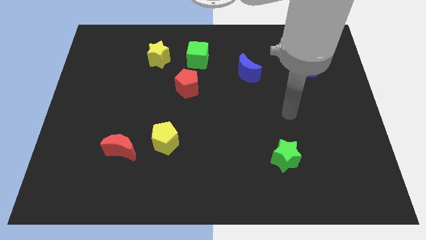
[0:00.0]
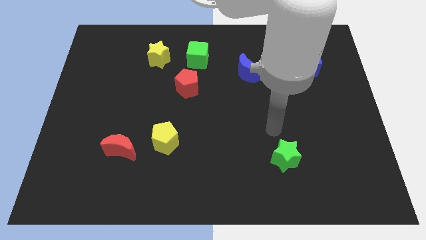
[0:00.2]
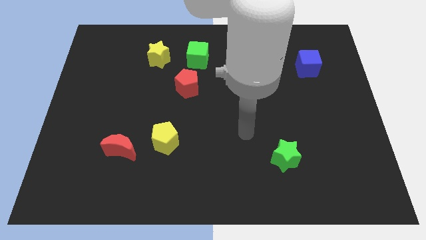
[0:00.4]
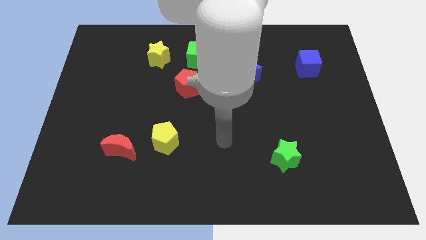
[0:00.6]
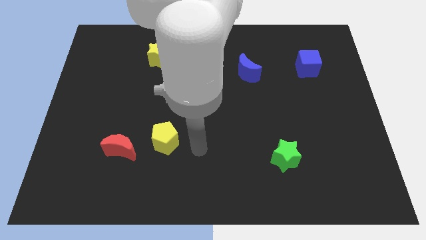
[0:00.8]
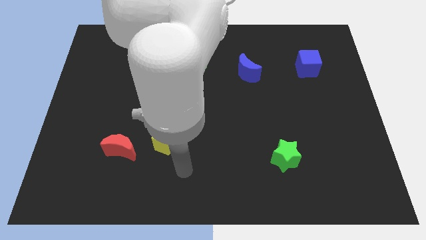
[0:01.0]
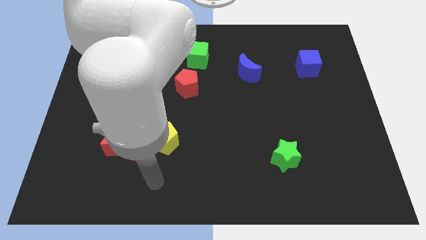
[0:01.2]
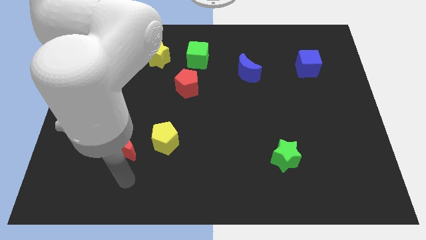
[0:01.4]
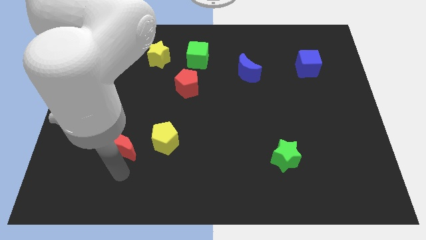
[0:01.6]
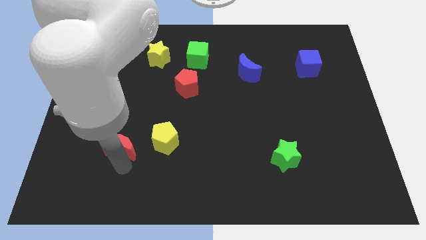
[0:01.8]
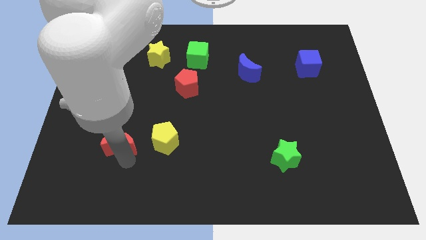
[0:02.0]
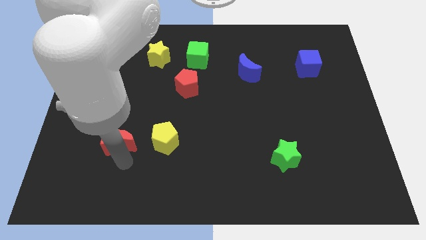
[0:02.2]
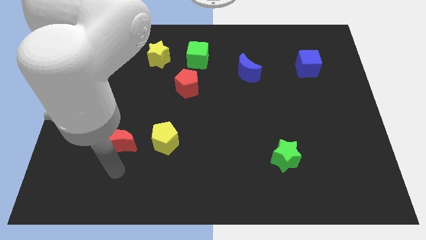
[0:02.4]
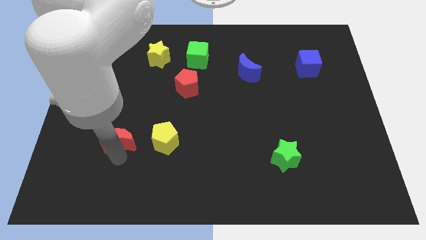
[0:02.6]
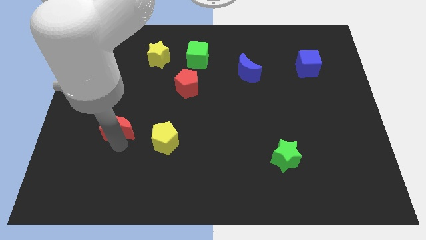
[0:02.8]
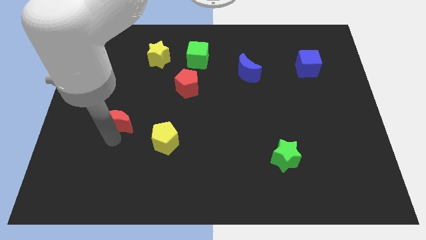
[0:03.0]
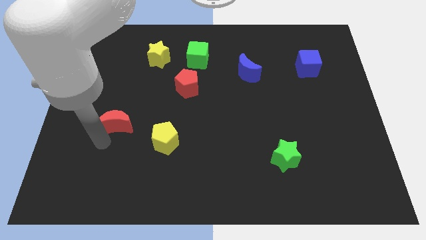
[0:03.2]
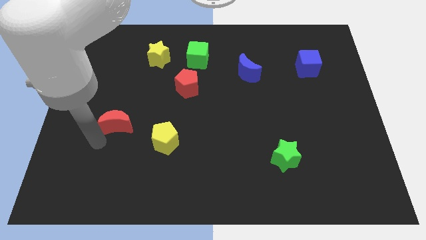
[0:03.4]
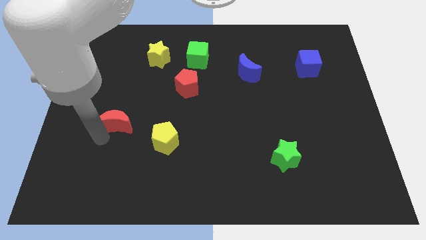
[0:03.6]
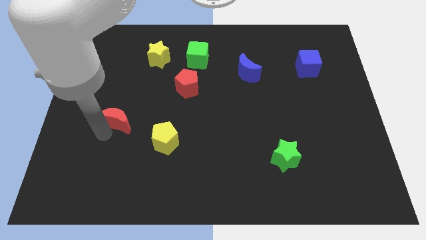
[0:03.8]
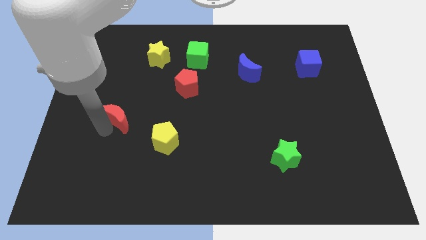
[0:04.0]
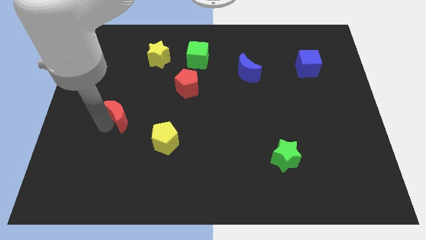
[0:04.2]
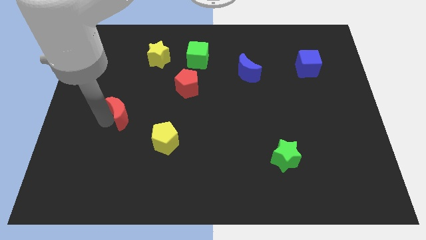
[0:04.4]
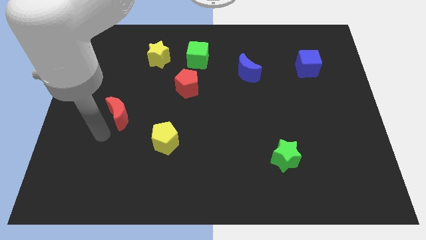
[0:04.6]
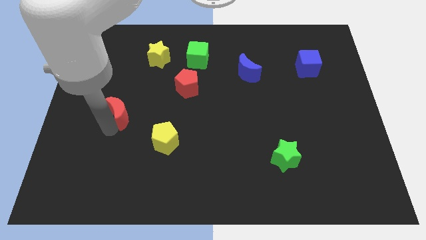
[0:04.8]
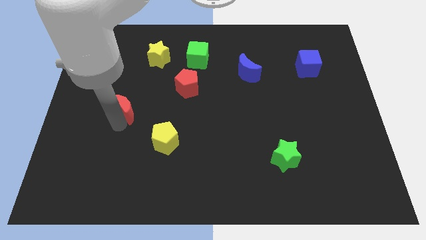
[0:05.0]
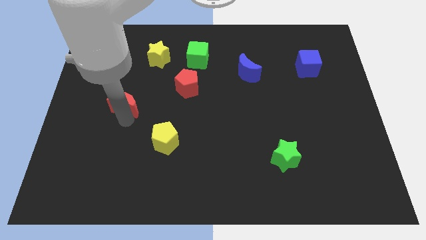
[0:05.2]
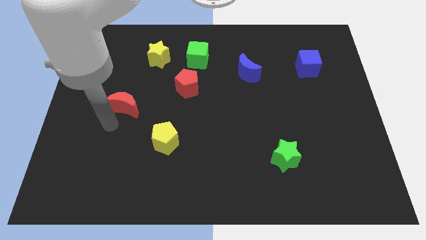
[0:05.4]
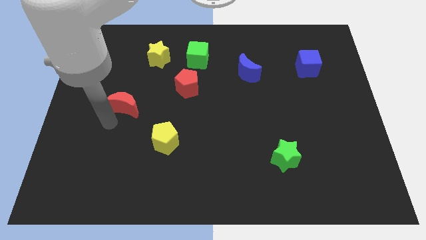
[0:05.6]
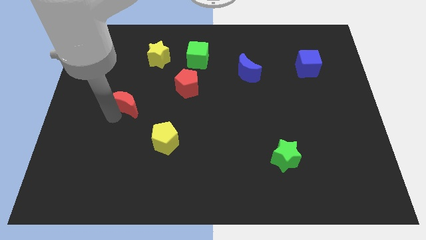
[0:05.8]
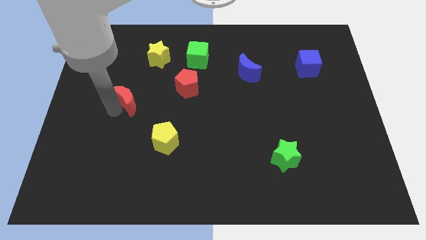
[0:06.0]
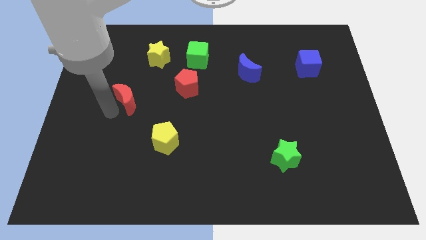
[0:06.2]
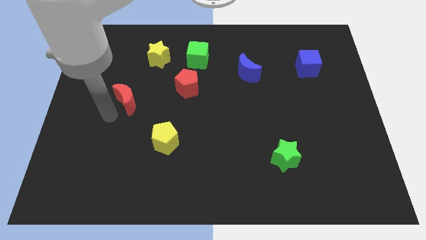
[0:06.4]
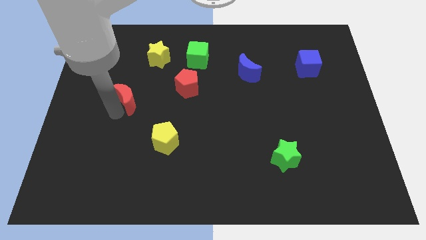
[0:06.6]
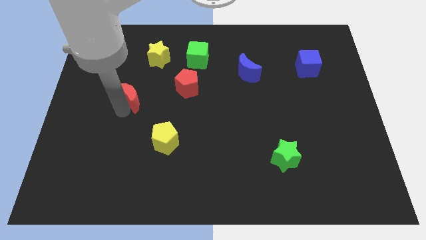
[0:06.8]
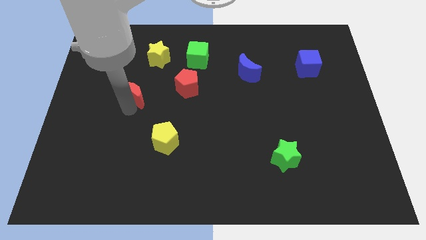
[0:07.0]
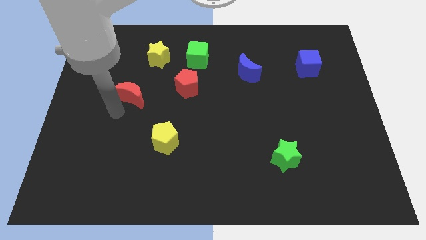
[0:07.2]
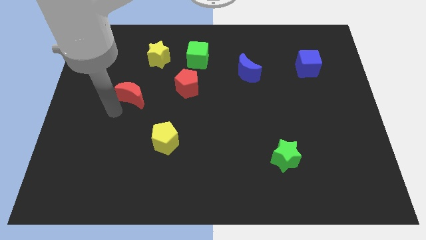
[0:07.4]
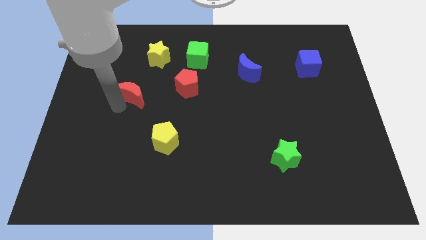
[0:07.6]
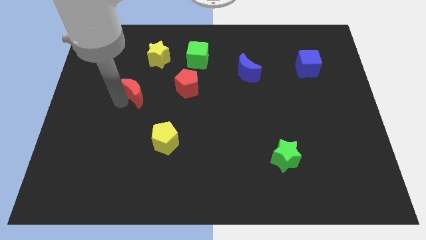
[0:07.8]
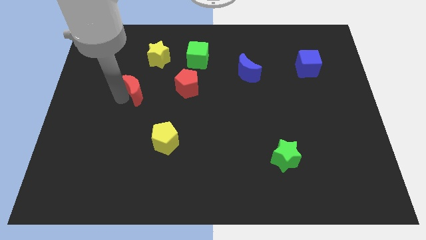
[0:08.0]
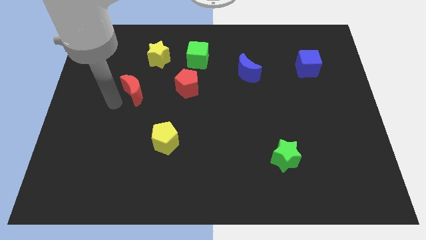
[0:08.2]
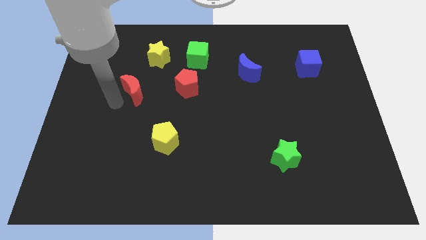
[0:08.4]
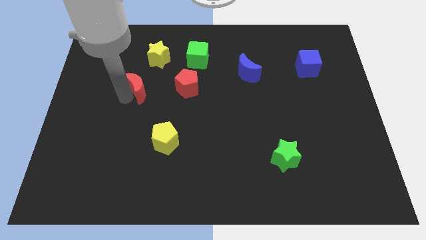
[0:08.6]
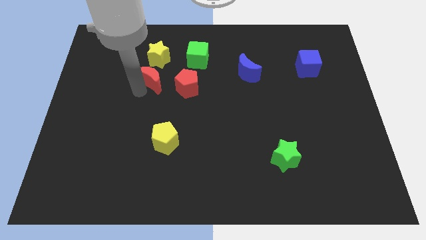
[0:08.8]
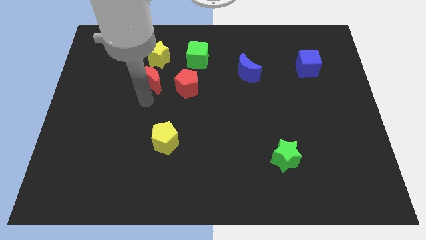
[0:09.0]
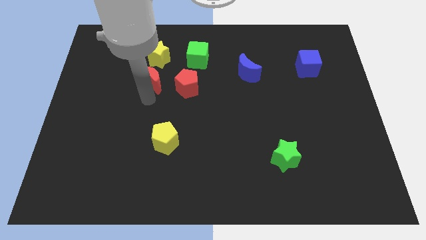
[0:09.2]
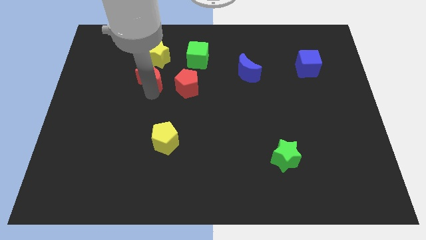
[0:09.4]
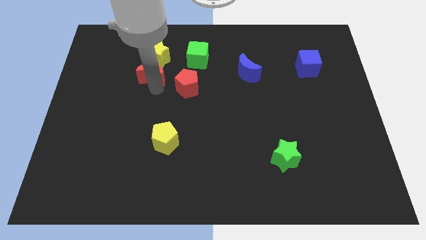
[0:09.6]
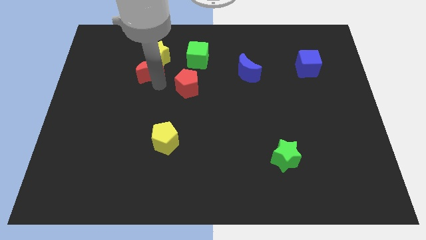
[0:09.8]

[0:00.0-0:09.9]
move the red moon next to the yellow star

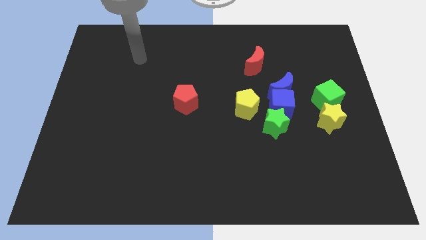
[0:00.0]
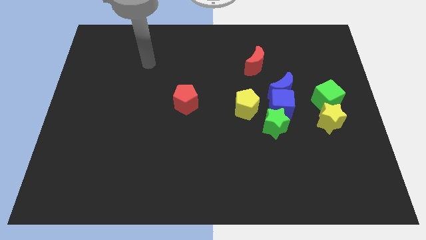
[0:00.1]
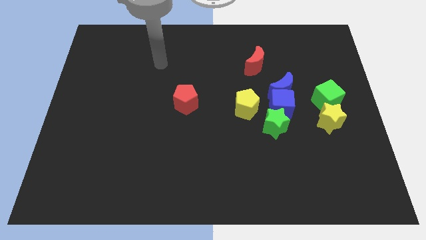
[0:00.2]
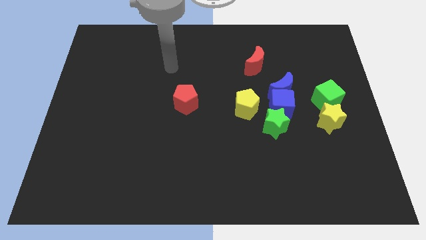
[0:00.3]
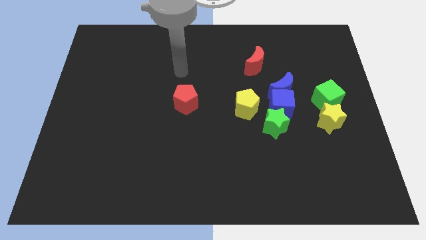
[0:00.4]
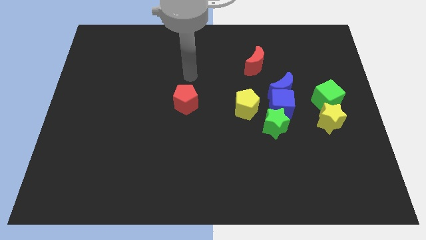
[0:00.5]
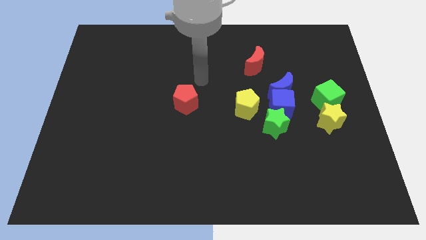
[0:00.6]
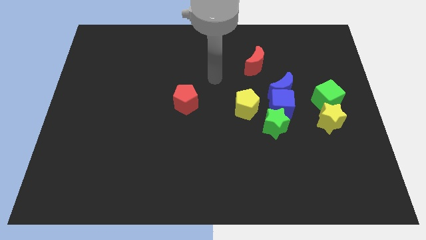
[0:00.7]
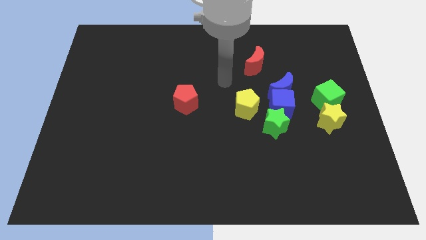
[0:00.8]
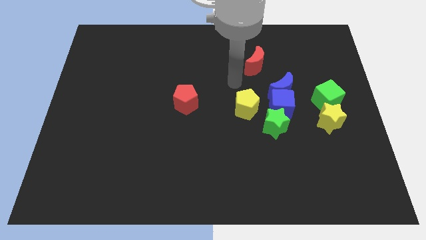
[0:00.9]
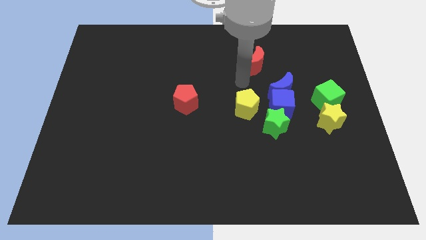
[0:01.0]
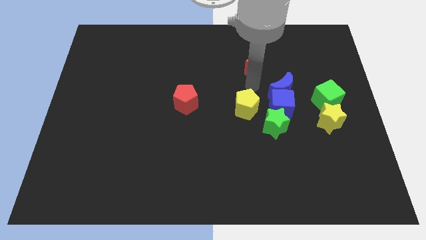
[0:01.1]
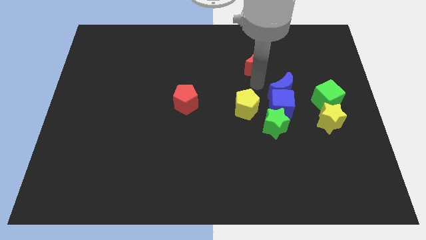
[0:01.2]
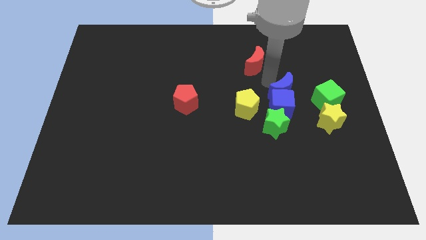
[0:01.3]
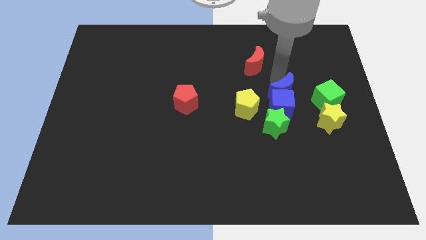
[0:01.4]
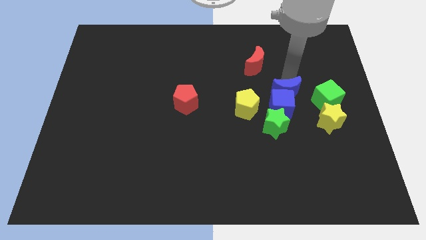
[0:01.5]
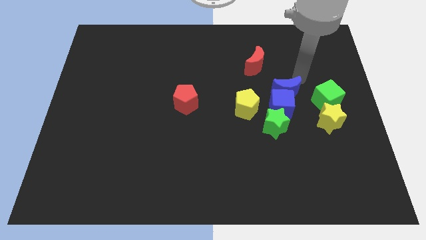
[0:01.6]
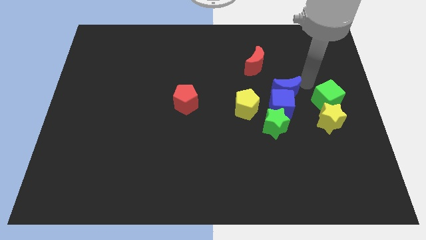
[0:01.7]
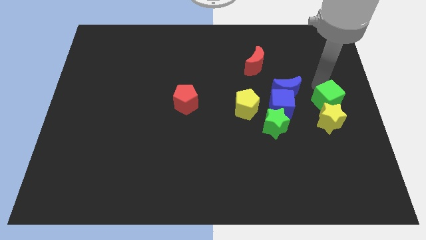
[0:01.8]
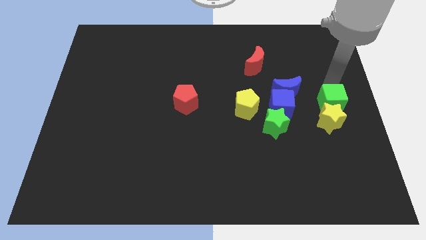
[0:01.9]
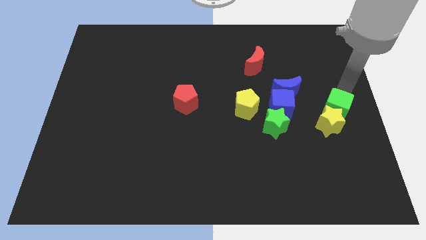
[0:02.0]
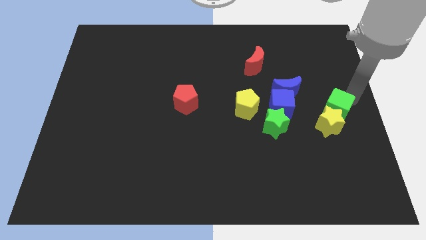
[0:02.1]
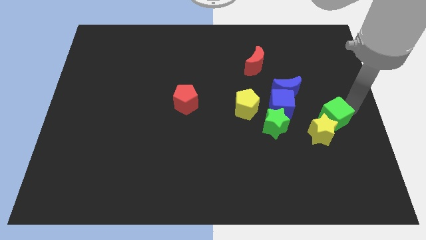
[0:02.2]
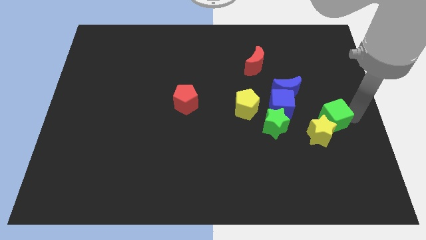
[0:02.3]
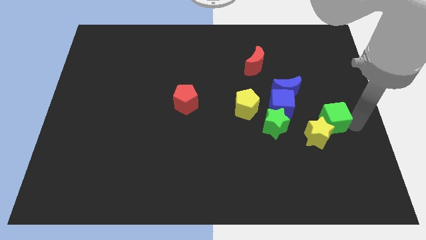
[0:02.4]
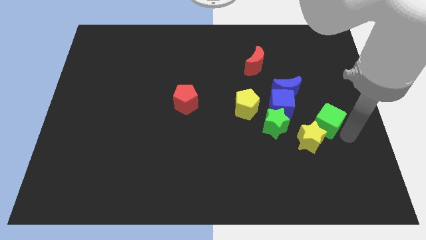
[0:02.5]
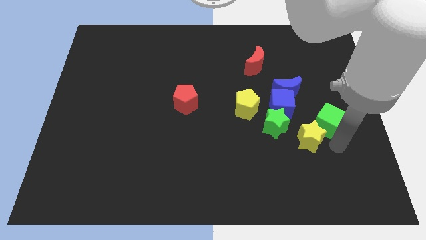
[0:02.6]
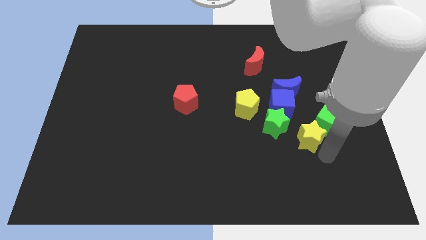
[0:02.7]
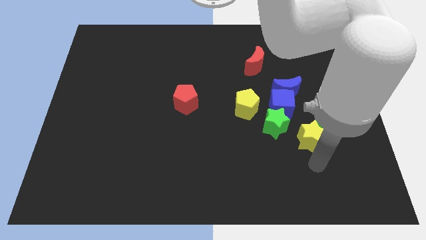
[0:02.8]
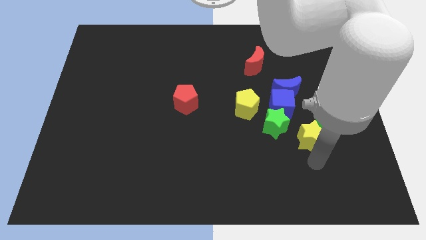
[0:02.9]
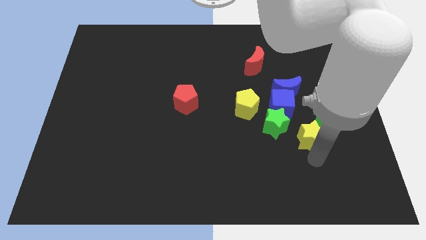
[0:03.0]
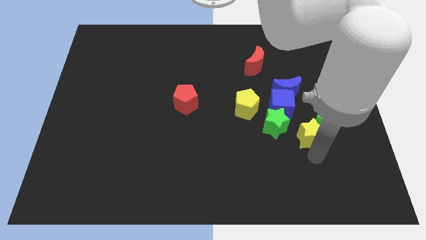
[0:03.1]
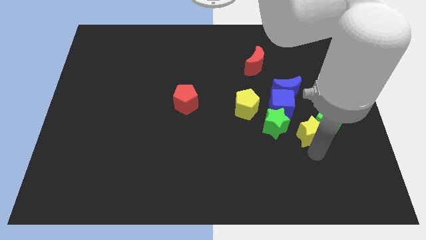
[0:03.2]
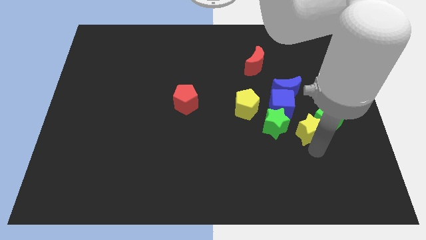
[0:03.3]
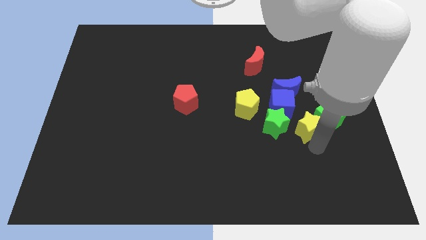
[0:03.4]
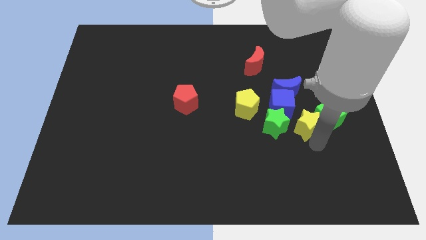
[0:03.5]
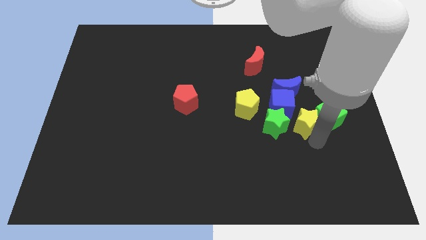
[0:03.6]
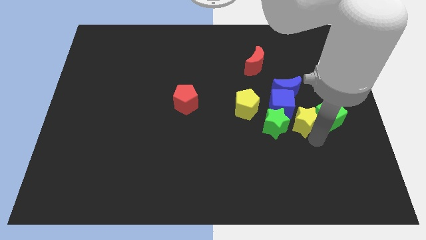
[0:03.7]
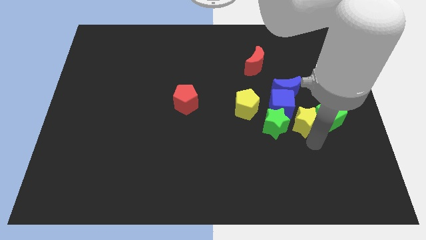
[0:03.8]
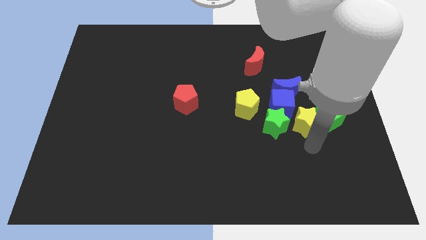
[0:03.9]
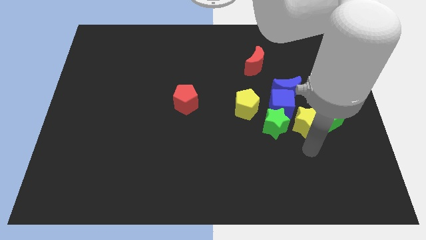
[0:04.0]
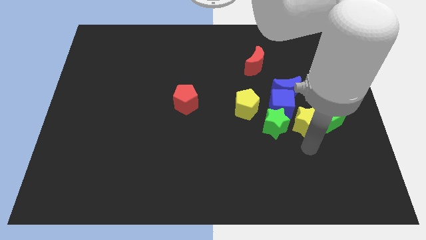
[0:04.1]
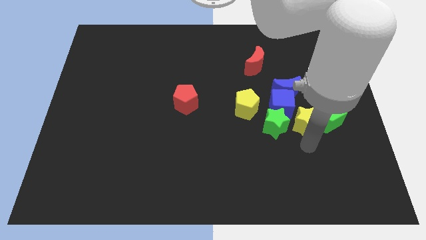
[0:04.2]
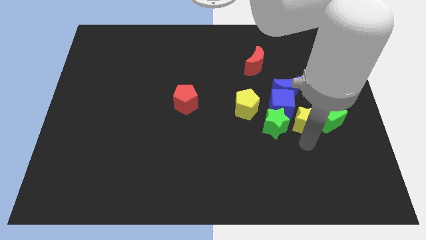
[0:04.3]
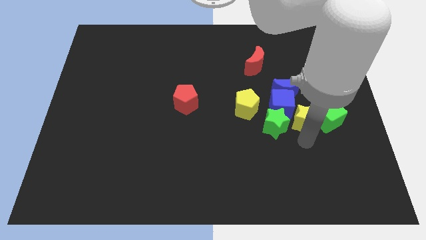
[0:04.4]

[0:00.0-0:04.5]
slide the yellow star next to the blue cube
